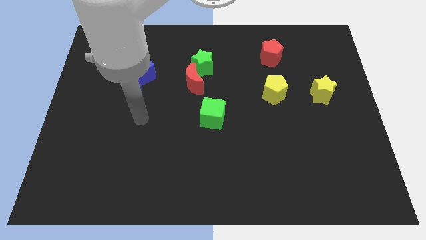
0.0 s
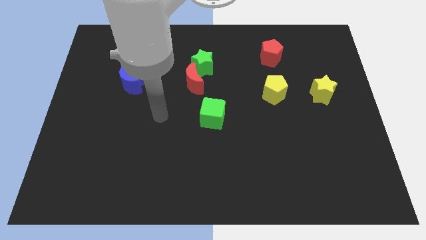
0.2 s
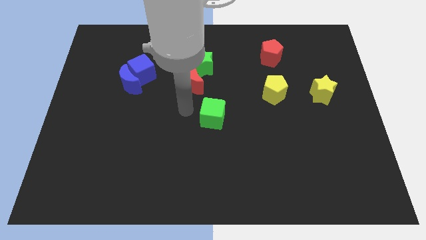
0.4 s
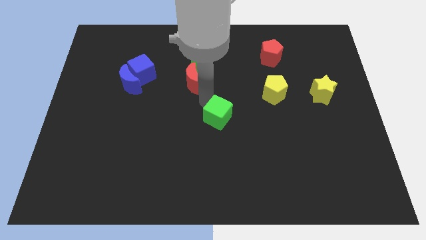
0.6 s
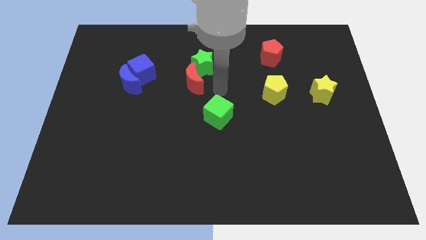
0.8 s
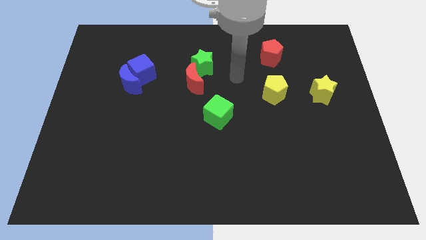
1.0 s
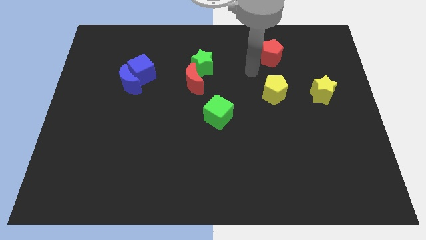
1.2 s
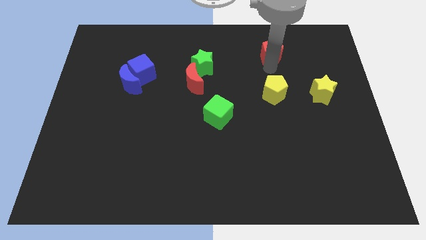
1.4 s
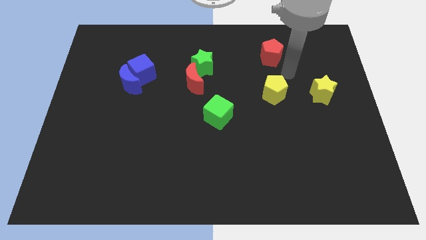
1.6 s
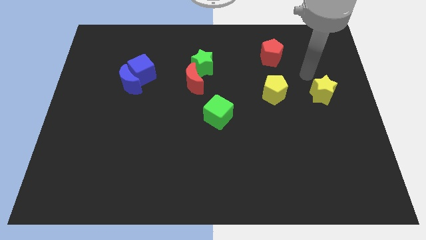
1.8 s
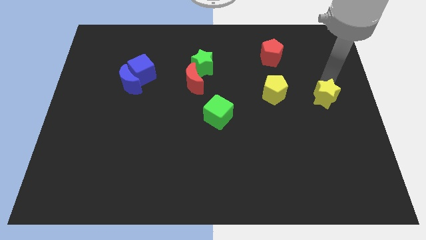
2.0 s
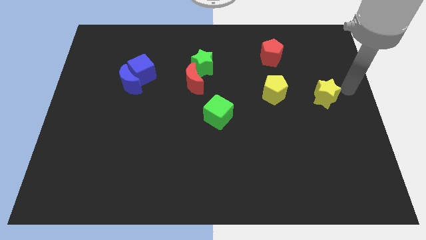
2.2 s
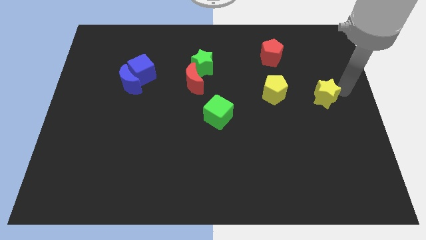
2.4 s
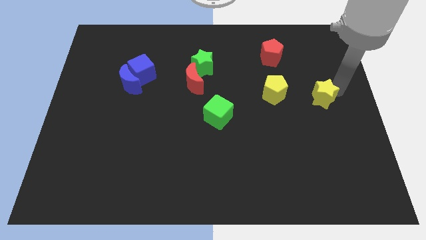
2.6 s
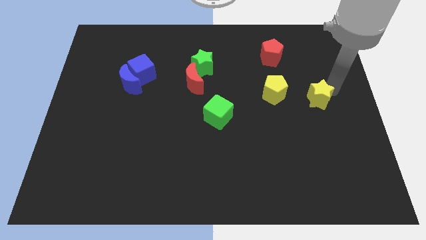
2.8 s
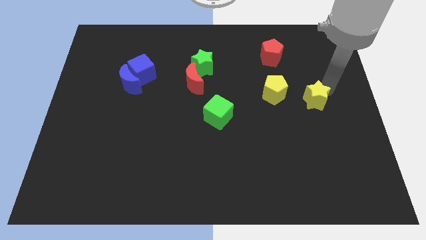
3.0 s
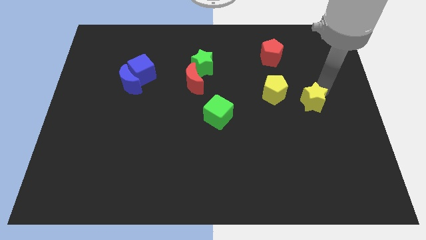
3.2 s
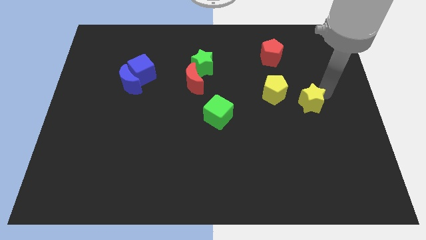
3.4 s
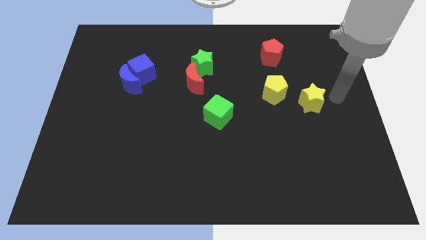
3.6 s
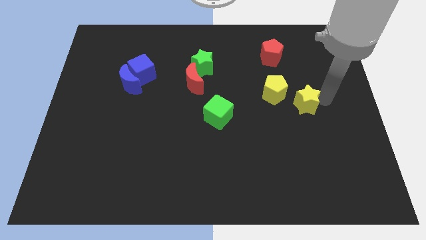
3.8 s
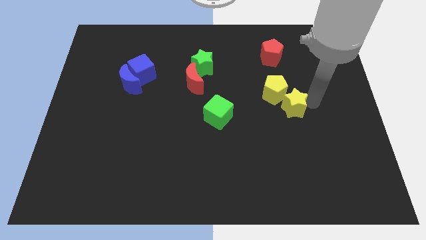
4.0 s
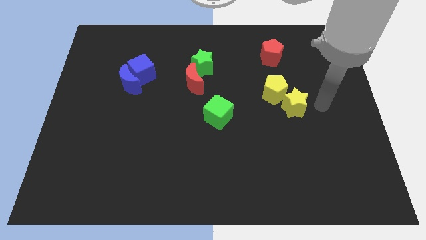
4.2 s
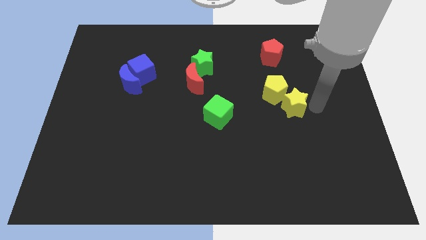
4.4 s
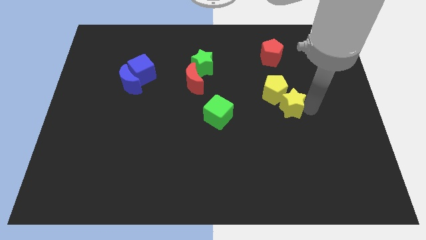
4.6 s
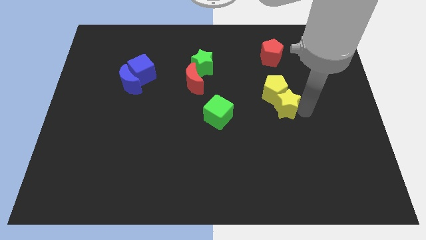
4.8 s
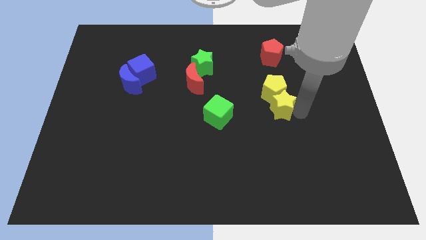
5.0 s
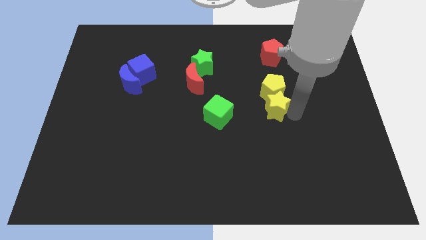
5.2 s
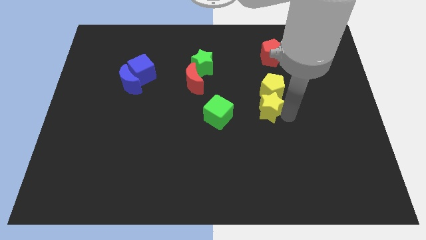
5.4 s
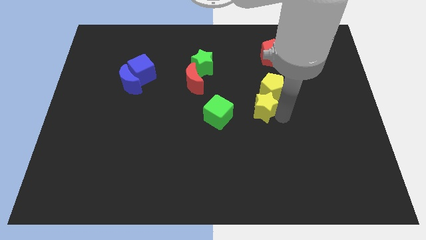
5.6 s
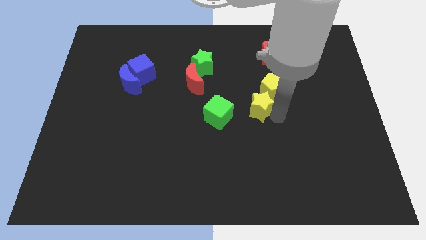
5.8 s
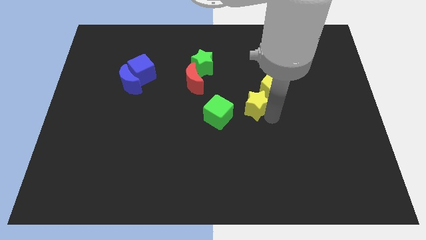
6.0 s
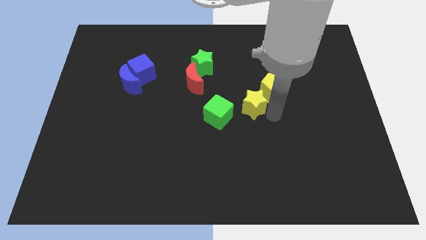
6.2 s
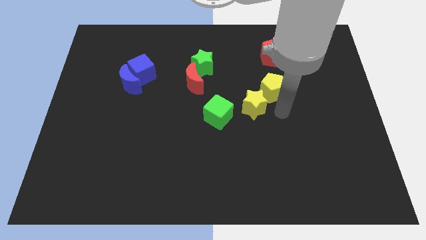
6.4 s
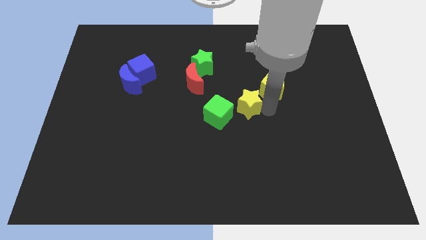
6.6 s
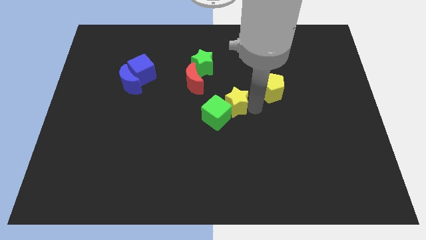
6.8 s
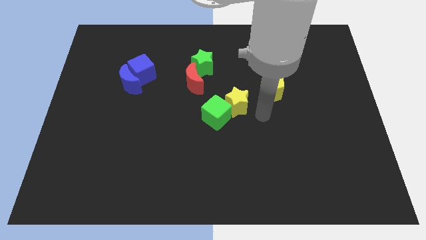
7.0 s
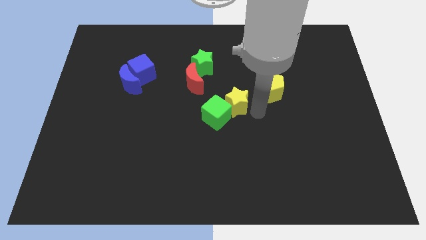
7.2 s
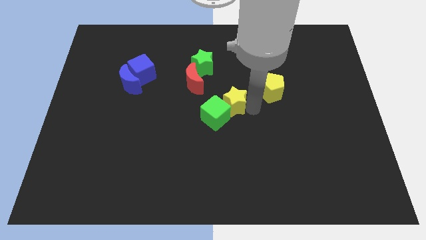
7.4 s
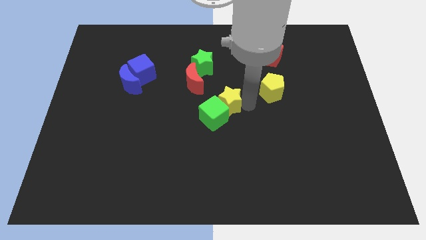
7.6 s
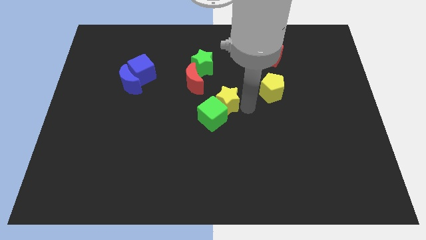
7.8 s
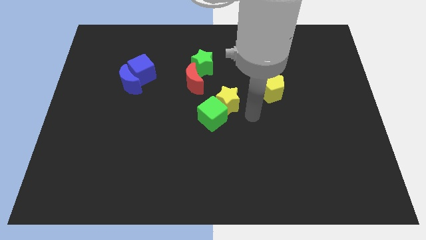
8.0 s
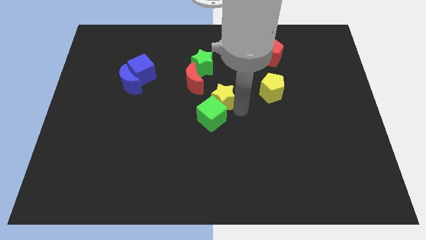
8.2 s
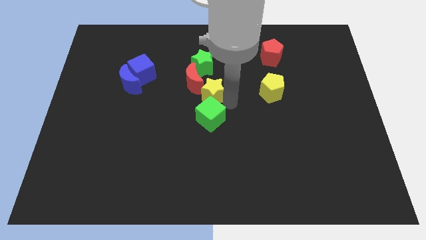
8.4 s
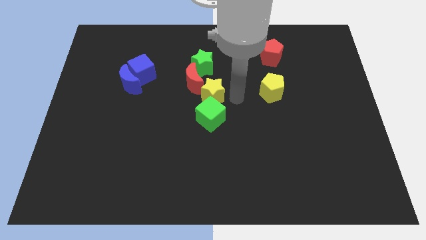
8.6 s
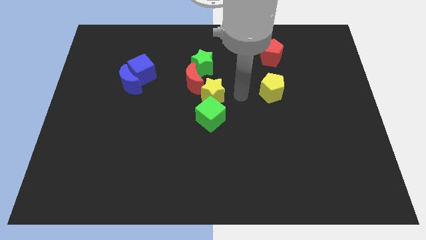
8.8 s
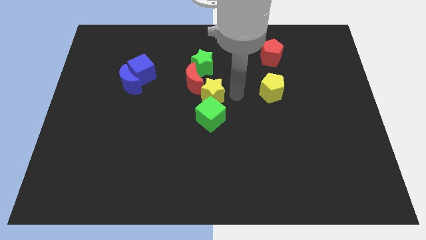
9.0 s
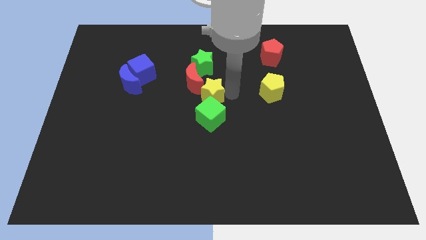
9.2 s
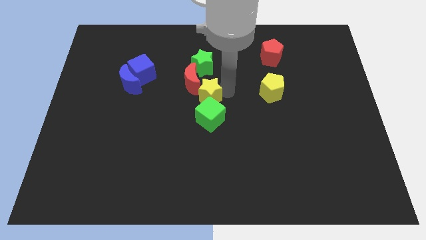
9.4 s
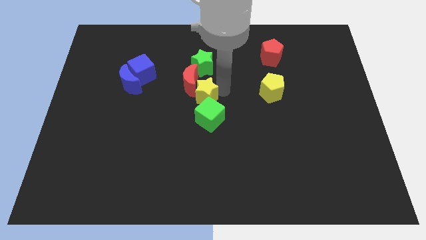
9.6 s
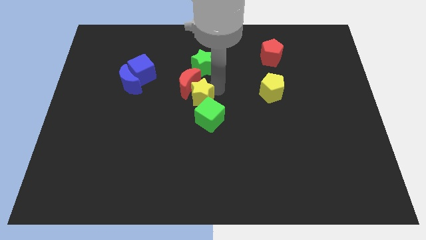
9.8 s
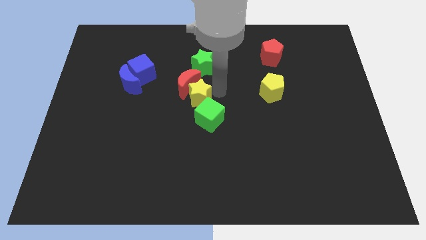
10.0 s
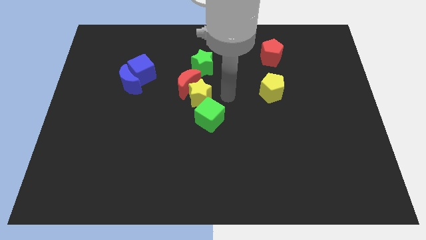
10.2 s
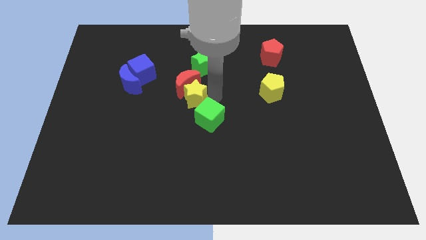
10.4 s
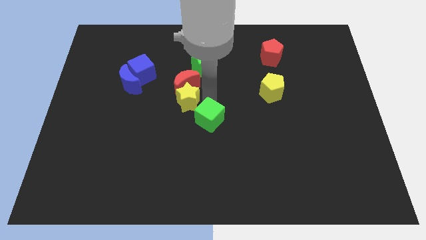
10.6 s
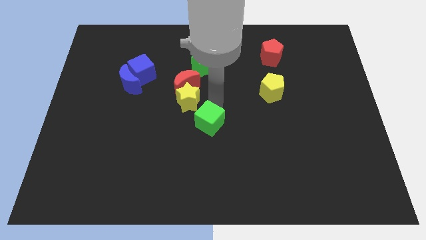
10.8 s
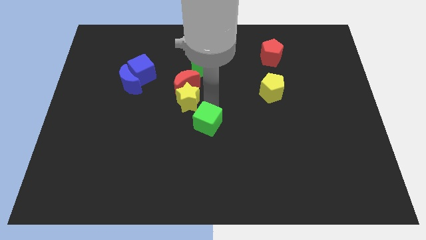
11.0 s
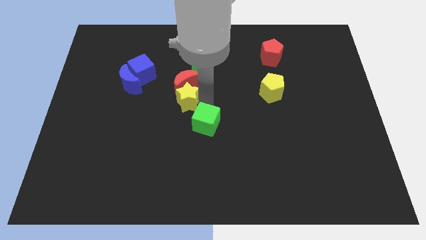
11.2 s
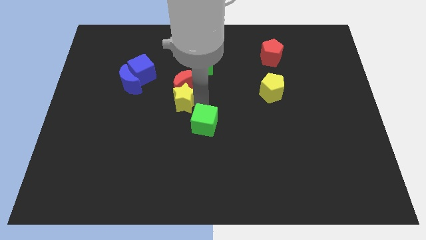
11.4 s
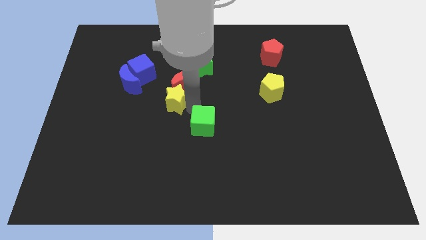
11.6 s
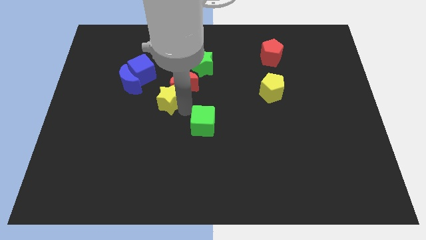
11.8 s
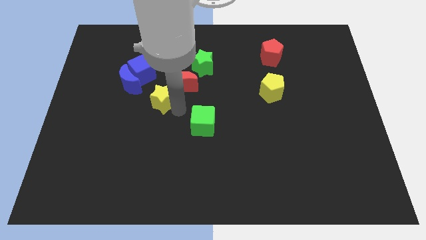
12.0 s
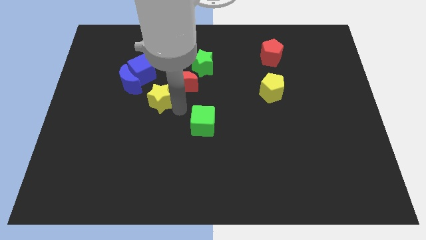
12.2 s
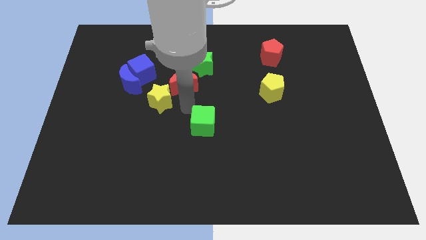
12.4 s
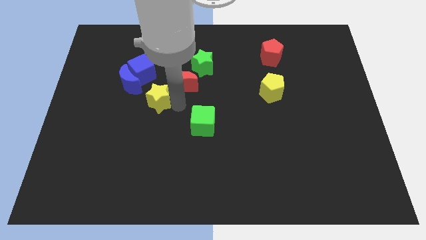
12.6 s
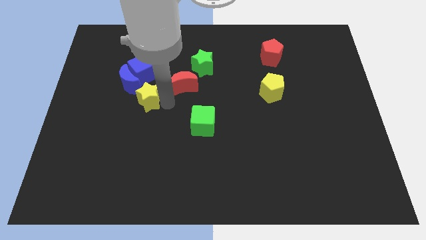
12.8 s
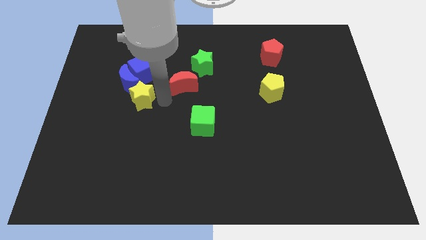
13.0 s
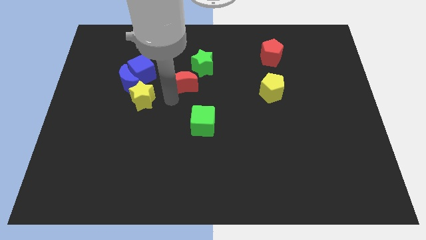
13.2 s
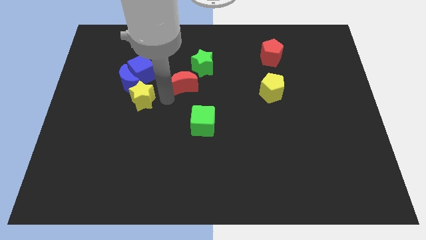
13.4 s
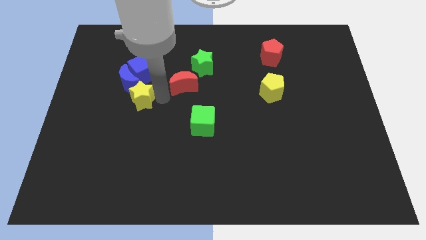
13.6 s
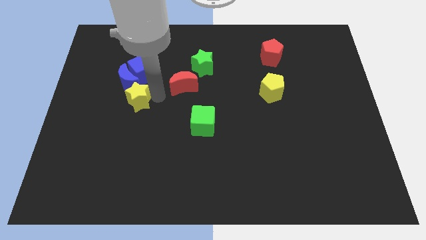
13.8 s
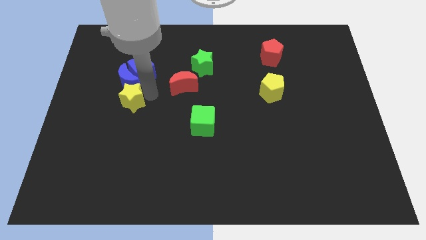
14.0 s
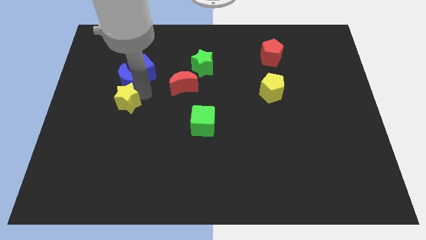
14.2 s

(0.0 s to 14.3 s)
push the yellow star diagonally down and to the left of the blue moon
